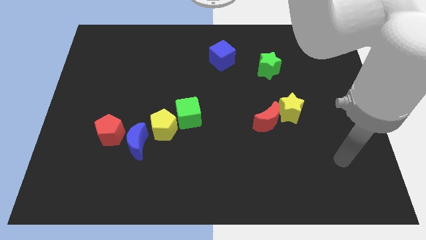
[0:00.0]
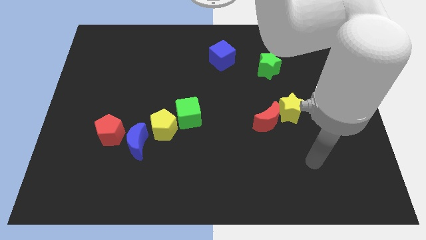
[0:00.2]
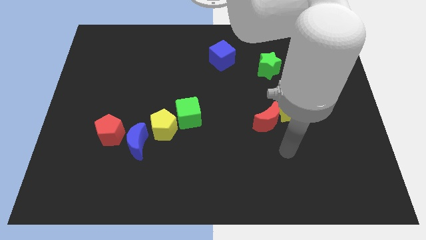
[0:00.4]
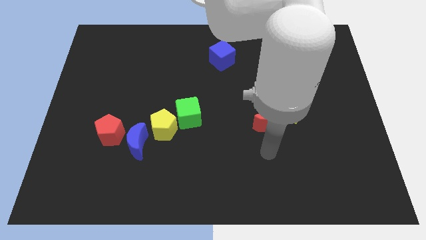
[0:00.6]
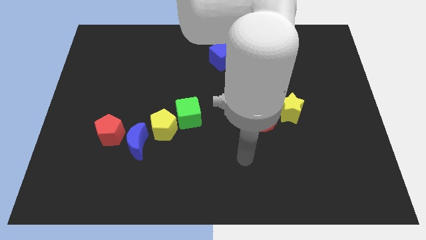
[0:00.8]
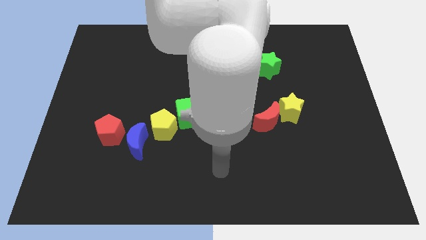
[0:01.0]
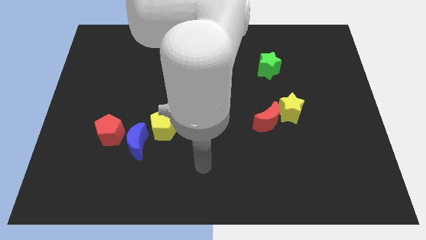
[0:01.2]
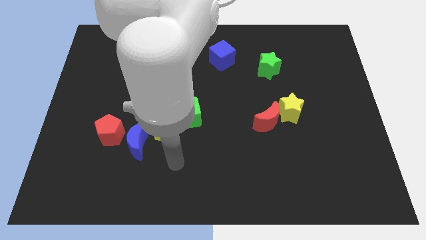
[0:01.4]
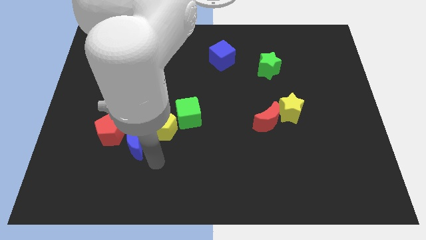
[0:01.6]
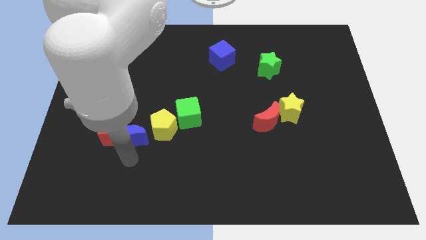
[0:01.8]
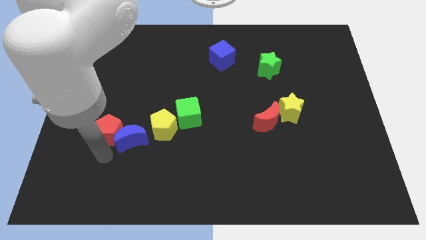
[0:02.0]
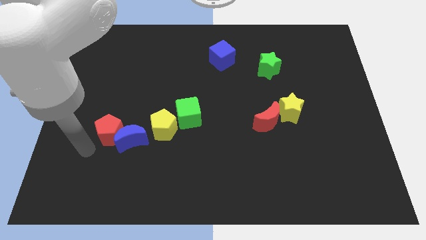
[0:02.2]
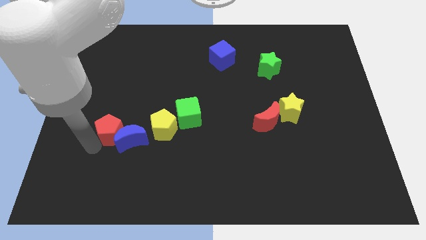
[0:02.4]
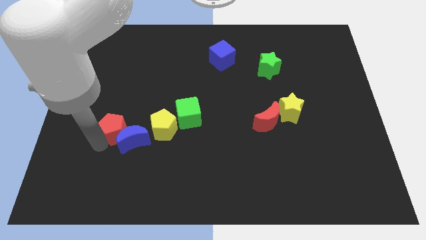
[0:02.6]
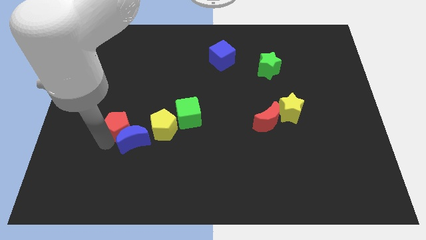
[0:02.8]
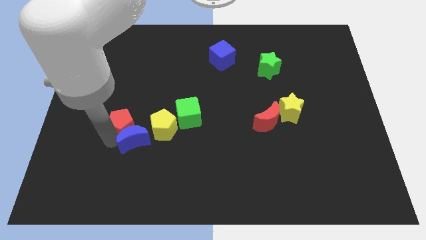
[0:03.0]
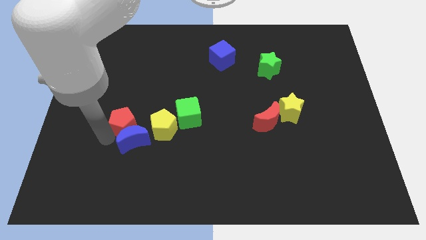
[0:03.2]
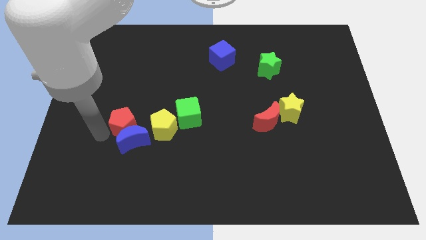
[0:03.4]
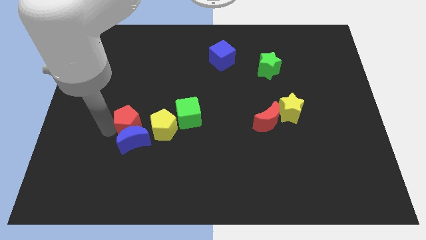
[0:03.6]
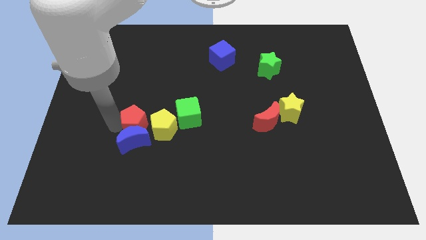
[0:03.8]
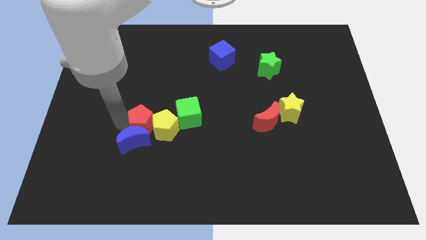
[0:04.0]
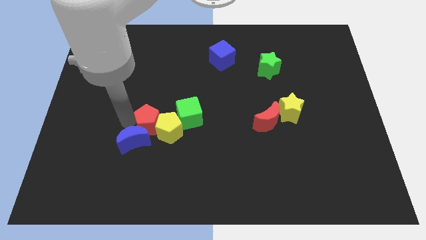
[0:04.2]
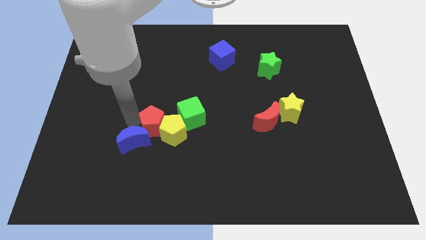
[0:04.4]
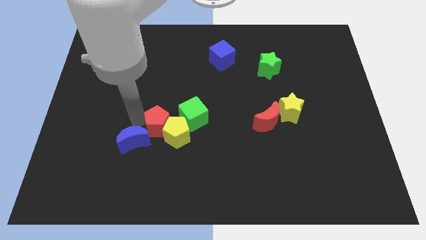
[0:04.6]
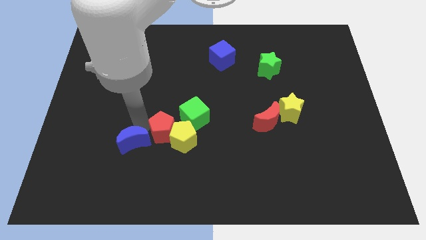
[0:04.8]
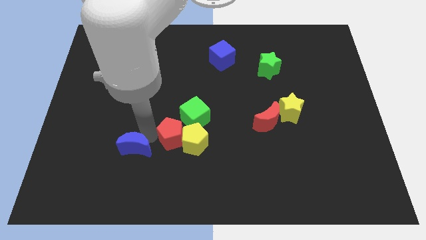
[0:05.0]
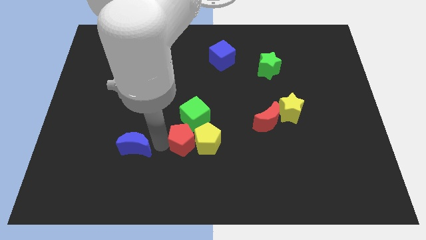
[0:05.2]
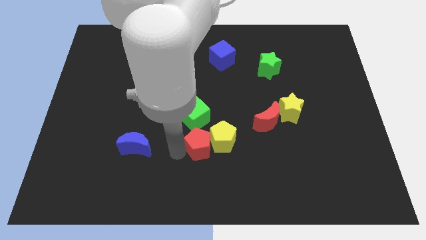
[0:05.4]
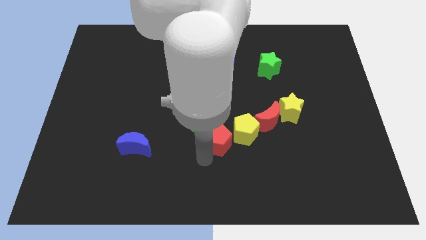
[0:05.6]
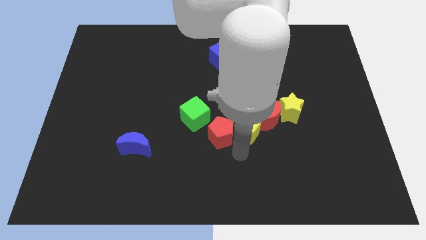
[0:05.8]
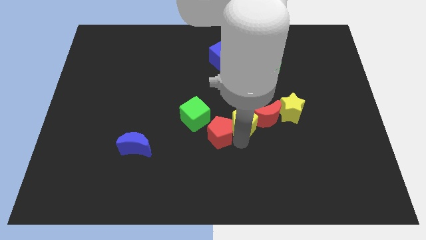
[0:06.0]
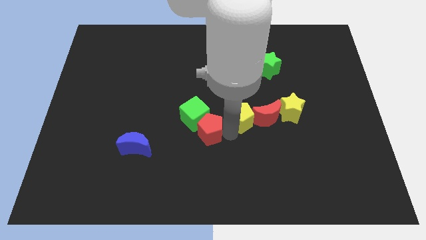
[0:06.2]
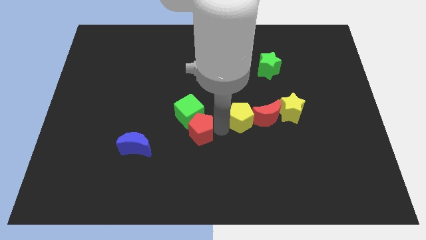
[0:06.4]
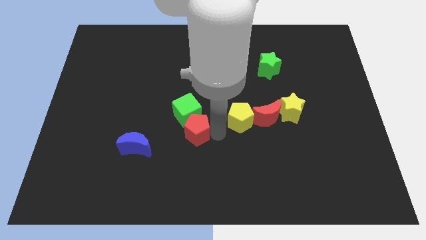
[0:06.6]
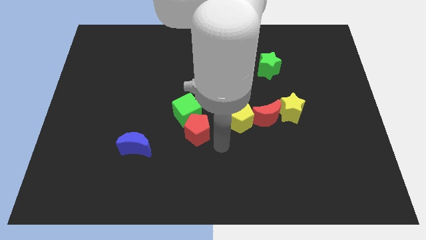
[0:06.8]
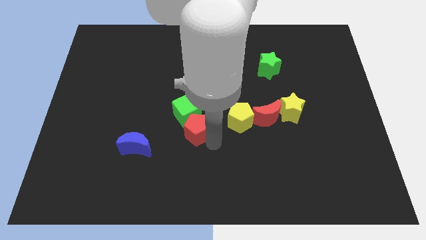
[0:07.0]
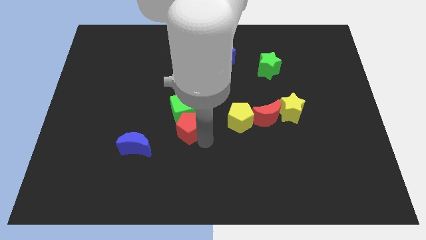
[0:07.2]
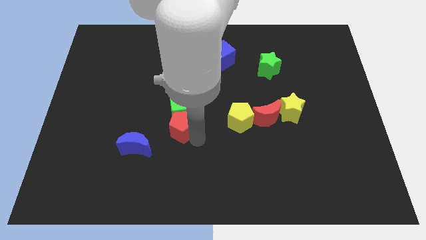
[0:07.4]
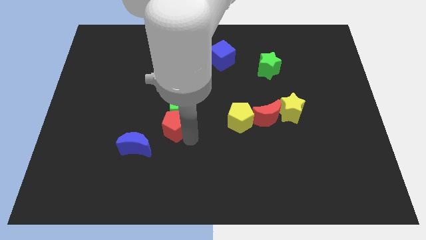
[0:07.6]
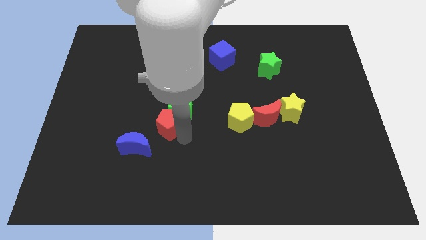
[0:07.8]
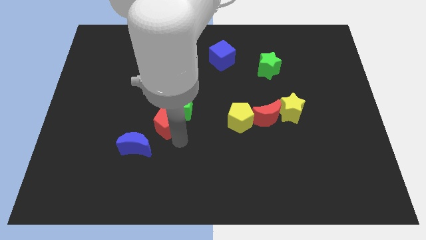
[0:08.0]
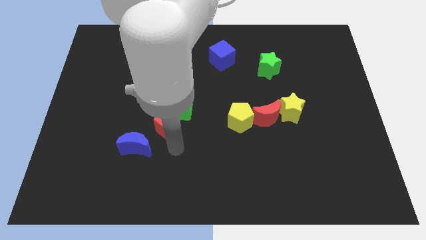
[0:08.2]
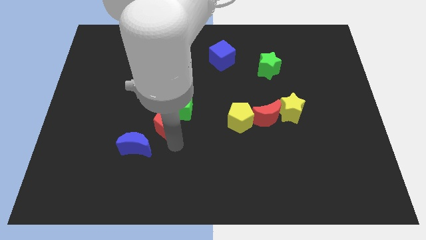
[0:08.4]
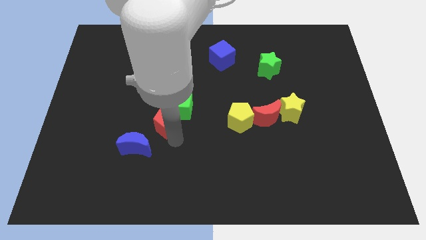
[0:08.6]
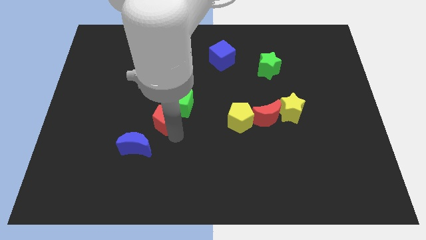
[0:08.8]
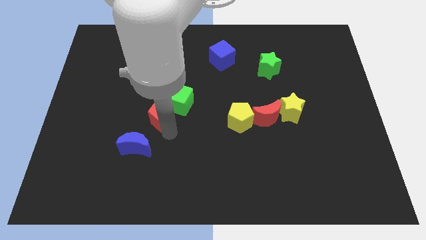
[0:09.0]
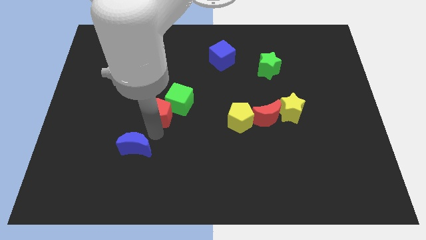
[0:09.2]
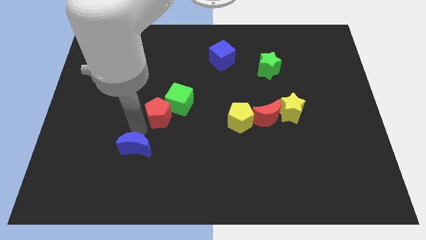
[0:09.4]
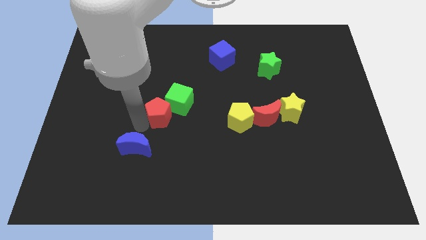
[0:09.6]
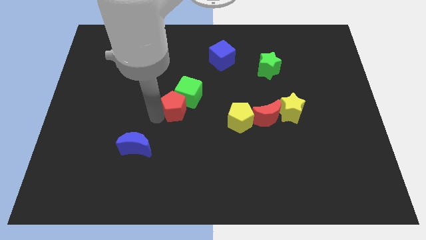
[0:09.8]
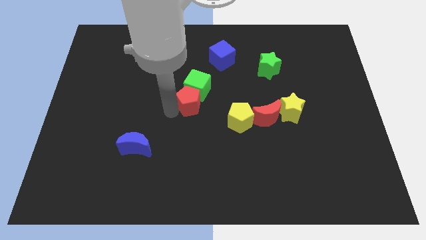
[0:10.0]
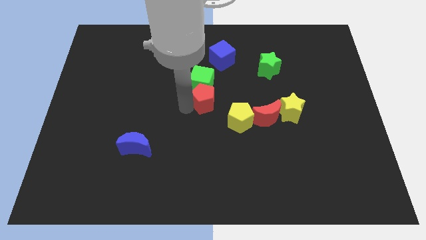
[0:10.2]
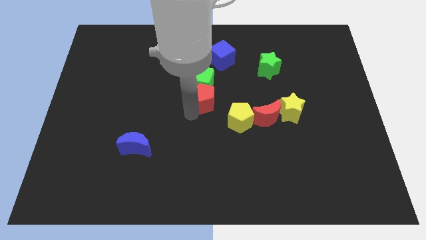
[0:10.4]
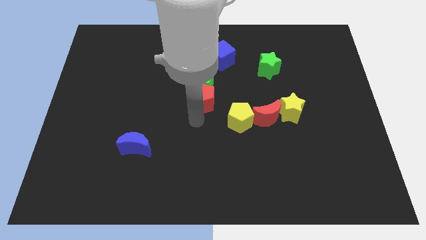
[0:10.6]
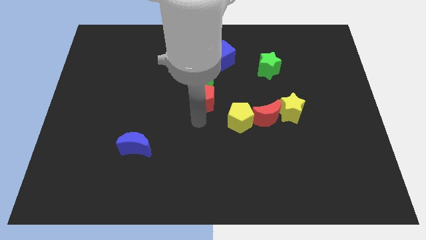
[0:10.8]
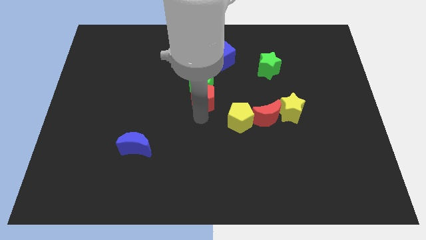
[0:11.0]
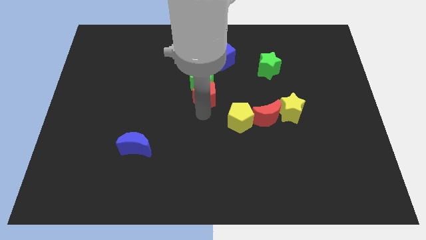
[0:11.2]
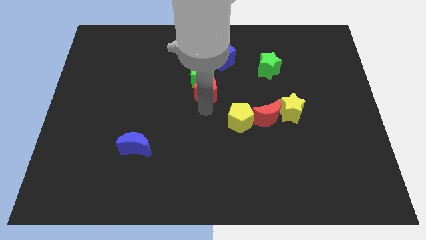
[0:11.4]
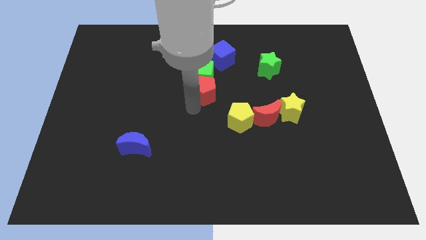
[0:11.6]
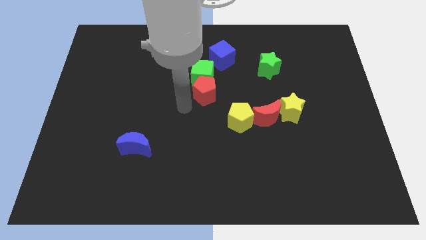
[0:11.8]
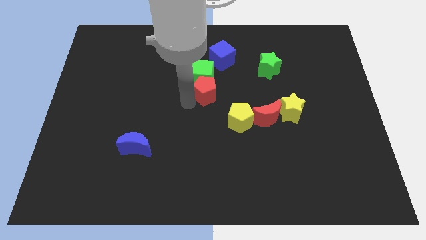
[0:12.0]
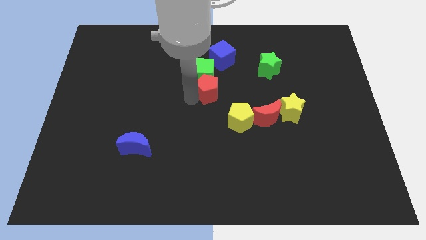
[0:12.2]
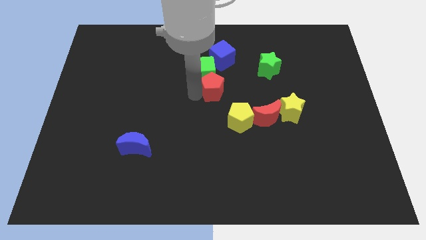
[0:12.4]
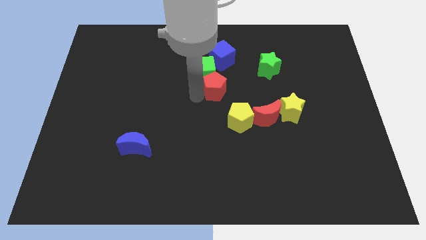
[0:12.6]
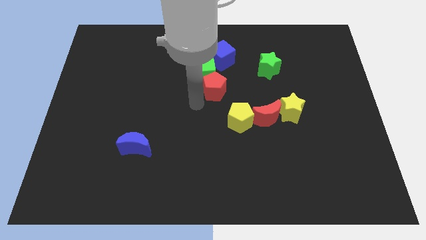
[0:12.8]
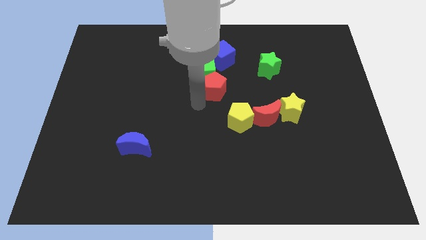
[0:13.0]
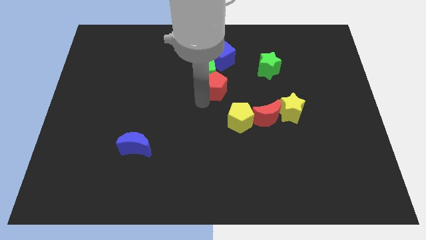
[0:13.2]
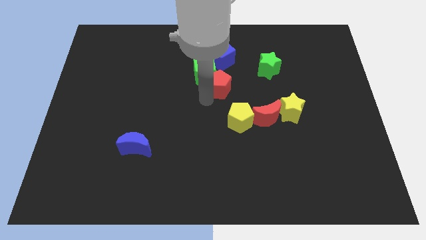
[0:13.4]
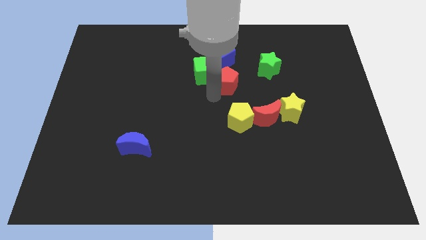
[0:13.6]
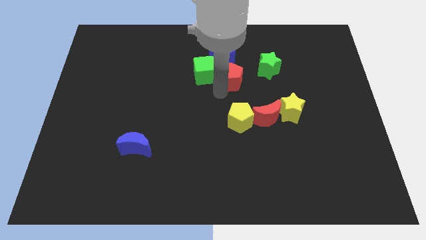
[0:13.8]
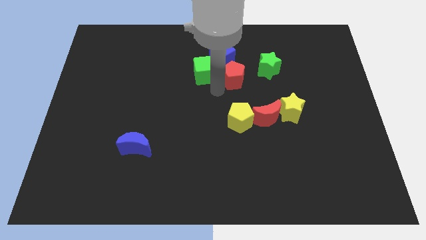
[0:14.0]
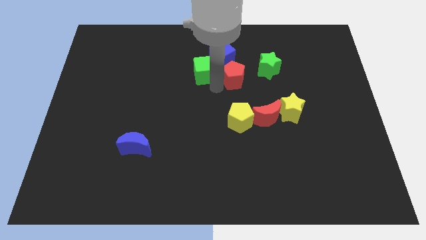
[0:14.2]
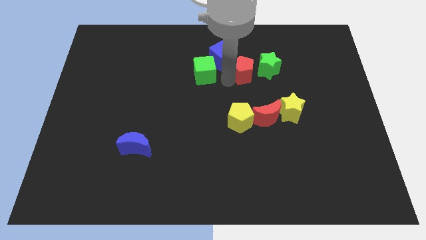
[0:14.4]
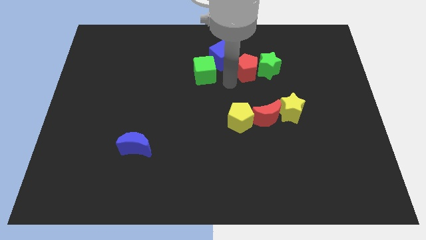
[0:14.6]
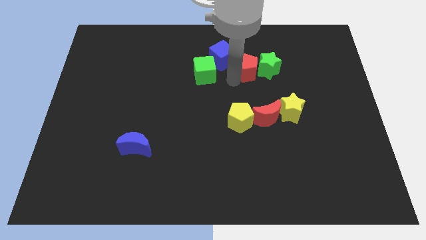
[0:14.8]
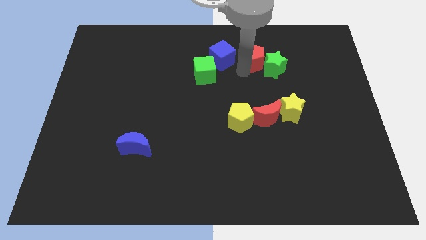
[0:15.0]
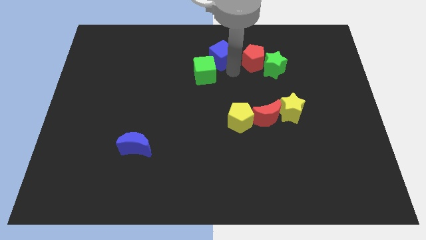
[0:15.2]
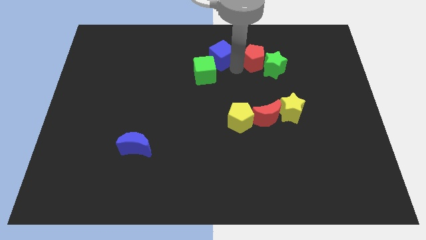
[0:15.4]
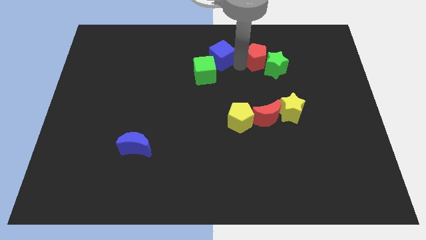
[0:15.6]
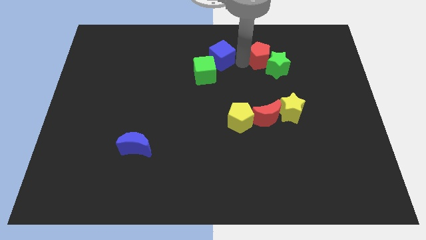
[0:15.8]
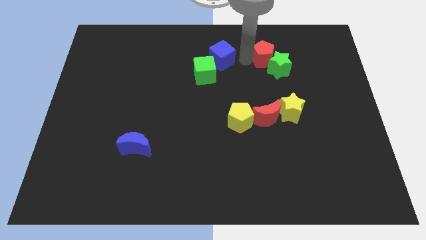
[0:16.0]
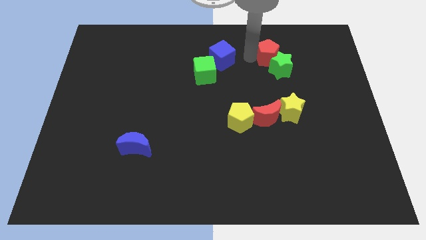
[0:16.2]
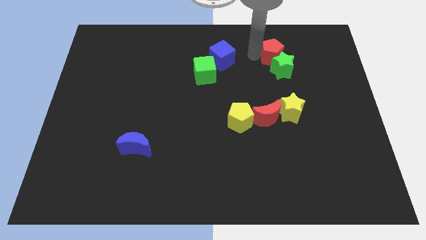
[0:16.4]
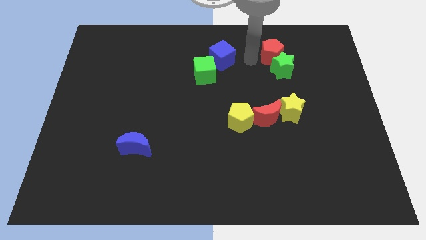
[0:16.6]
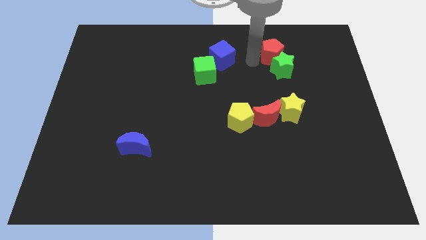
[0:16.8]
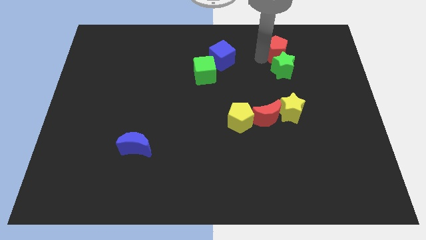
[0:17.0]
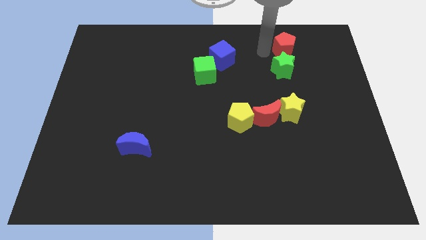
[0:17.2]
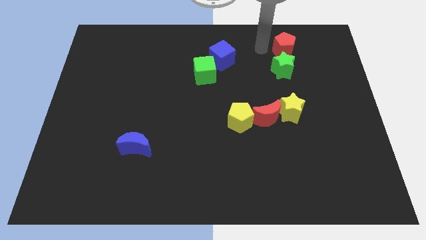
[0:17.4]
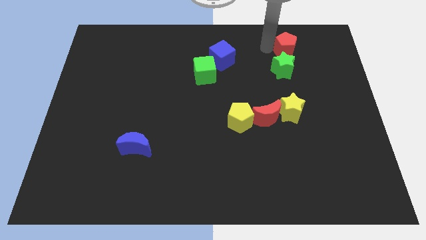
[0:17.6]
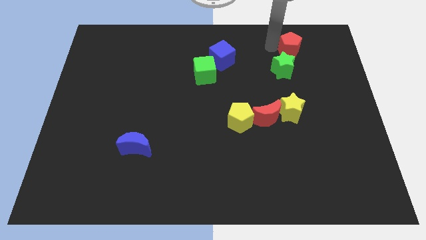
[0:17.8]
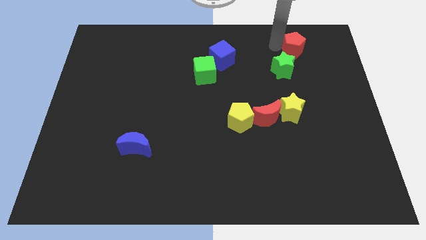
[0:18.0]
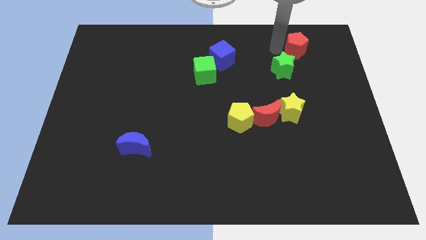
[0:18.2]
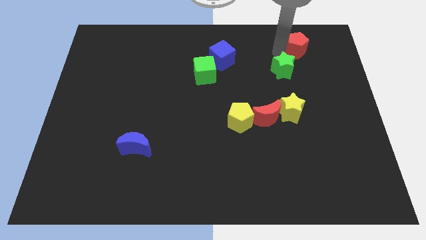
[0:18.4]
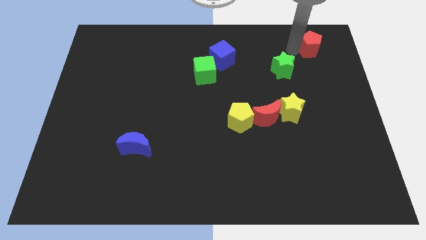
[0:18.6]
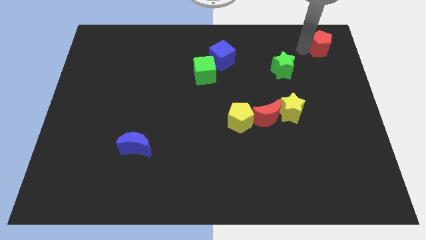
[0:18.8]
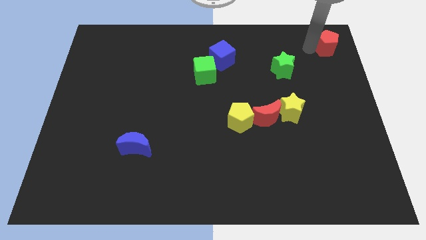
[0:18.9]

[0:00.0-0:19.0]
slide the red pentagon to the top right of the board
